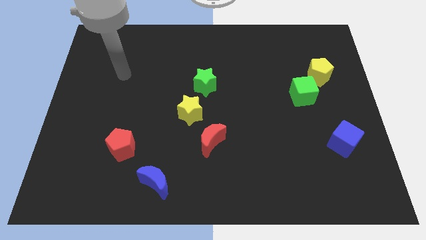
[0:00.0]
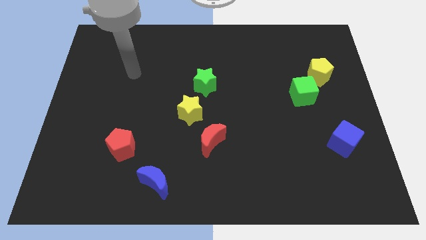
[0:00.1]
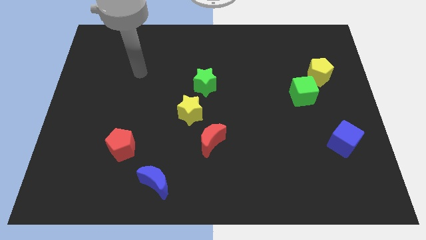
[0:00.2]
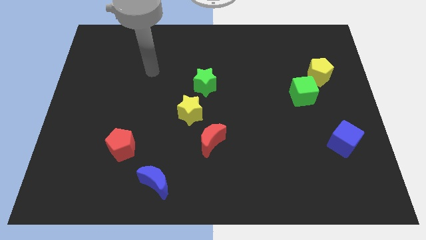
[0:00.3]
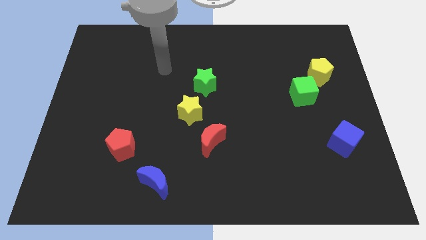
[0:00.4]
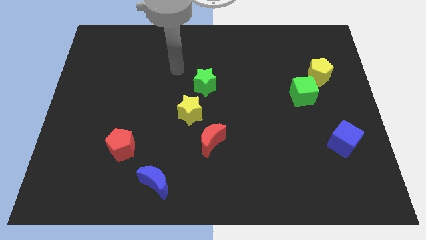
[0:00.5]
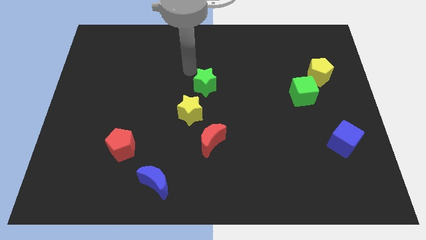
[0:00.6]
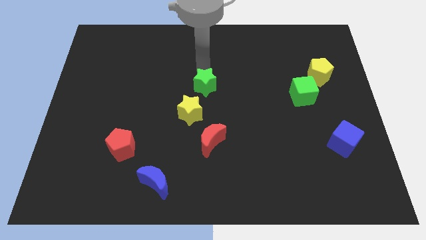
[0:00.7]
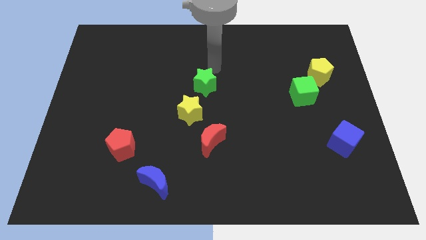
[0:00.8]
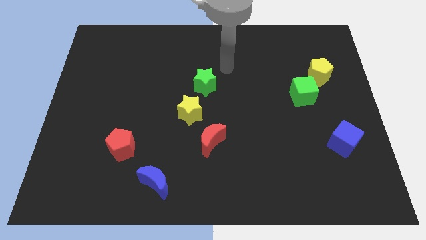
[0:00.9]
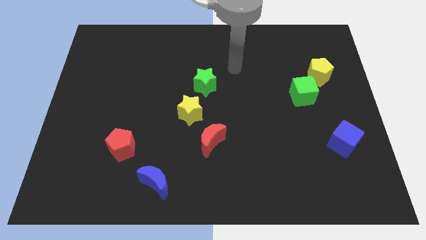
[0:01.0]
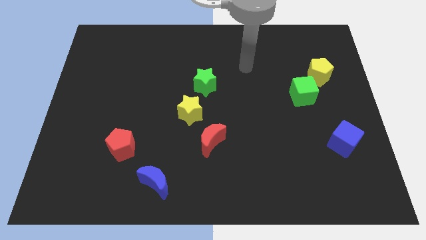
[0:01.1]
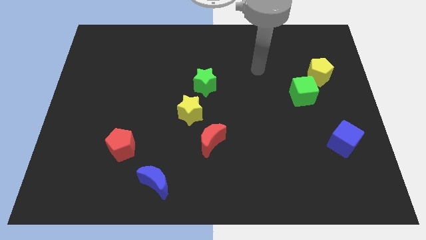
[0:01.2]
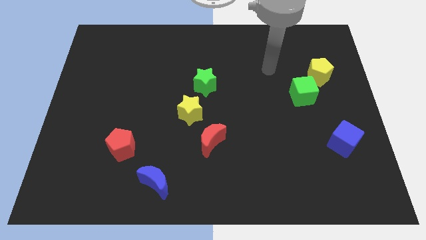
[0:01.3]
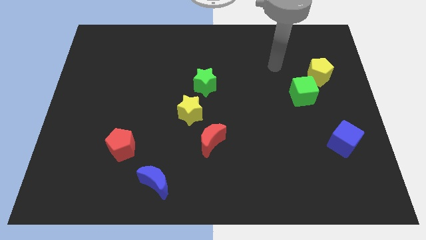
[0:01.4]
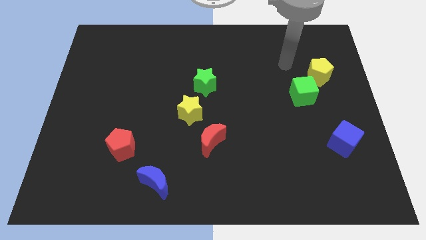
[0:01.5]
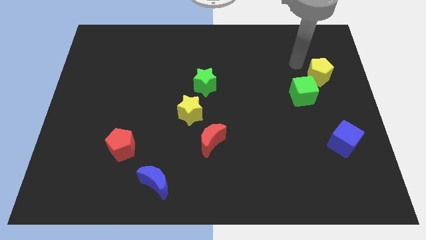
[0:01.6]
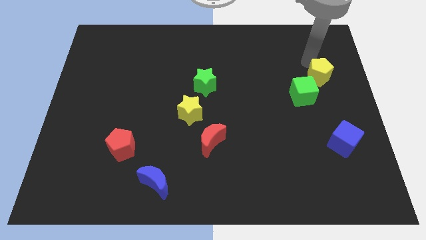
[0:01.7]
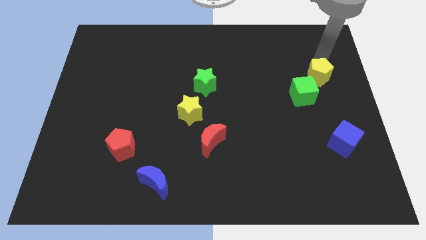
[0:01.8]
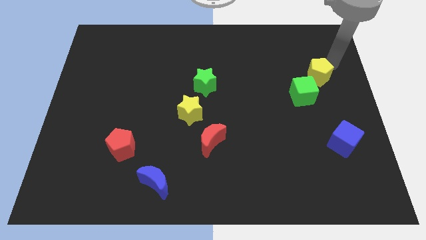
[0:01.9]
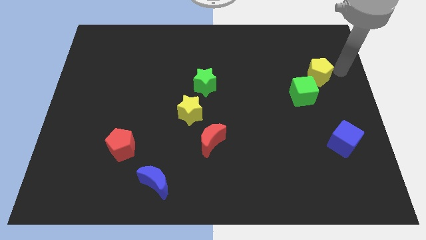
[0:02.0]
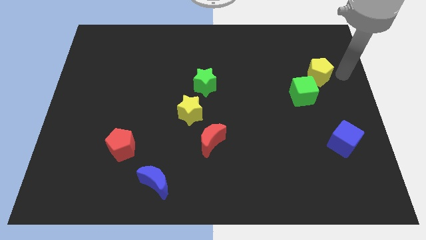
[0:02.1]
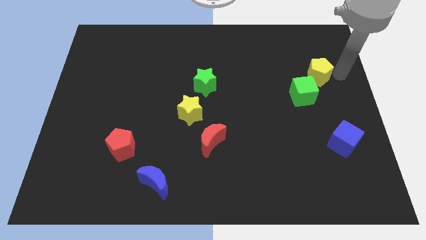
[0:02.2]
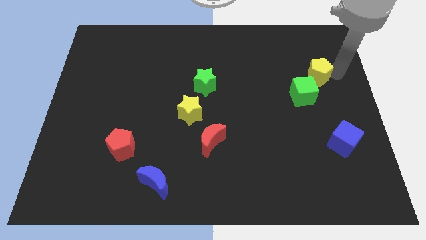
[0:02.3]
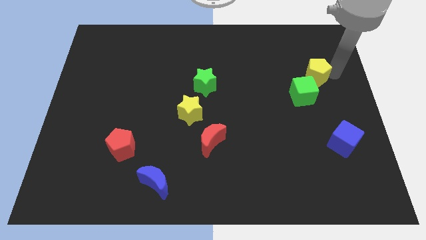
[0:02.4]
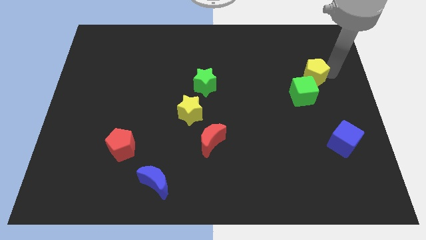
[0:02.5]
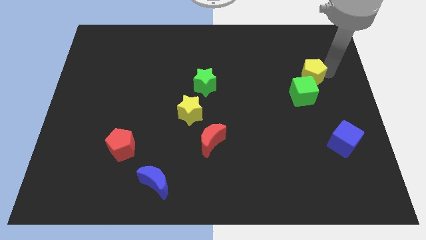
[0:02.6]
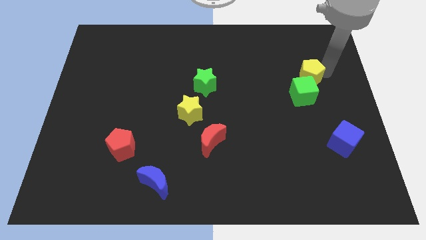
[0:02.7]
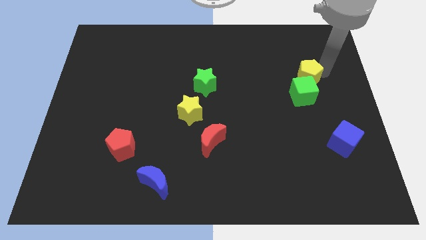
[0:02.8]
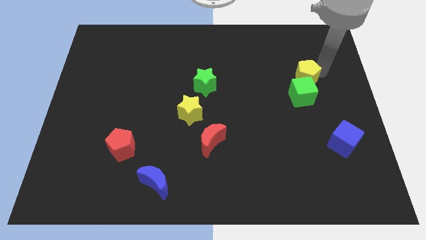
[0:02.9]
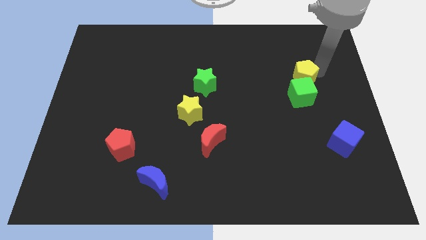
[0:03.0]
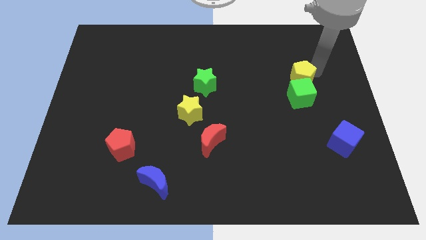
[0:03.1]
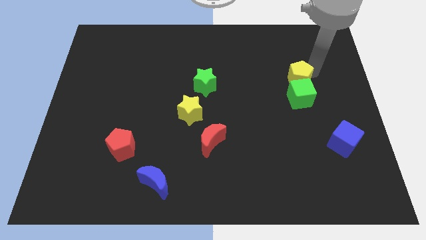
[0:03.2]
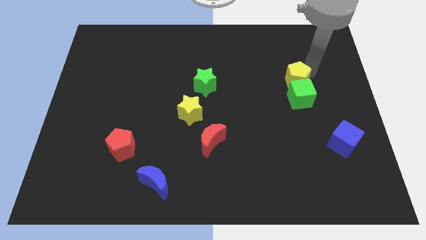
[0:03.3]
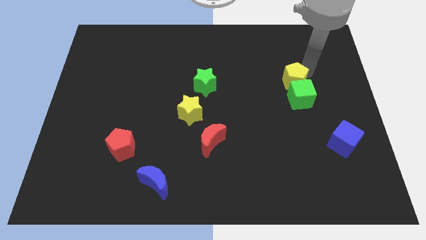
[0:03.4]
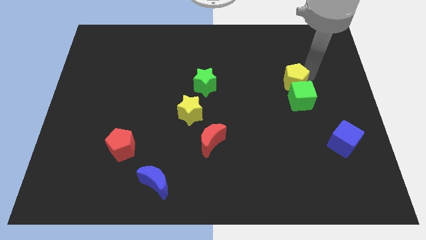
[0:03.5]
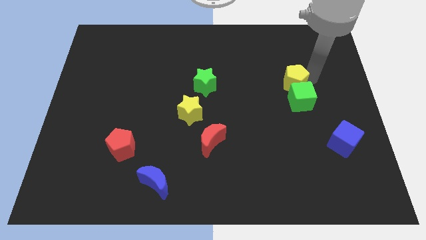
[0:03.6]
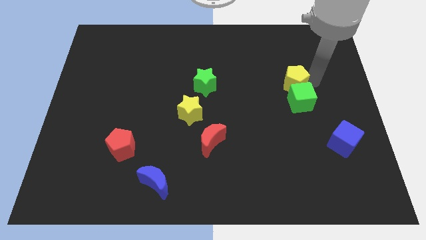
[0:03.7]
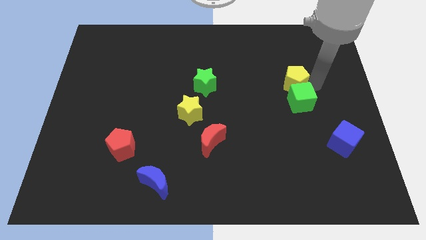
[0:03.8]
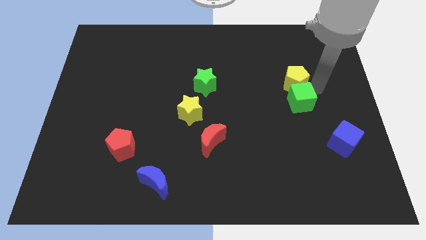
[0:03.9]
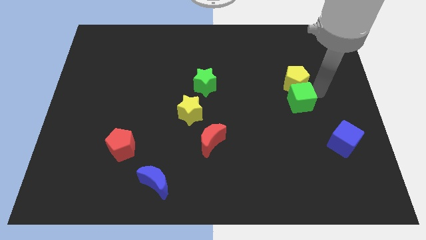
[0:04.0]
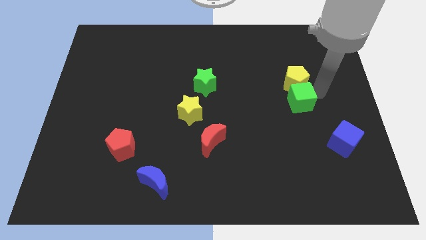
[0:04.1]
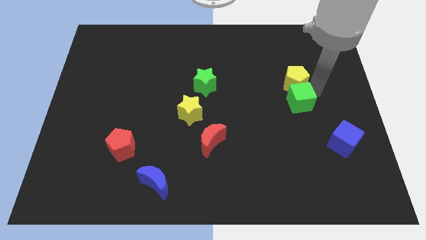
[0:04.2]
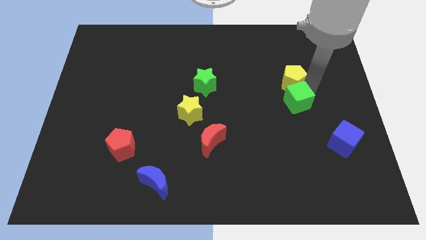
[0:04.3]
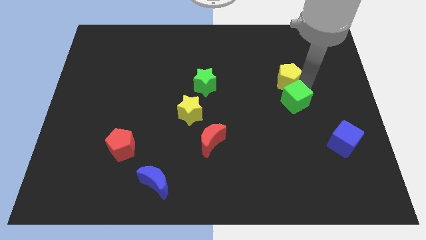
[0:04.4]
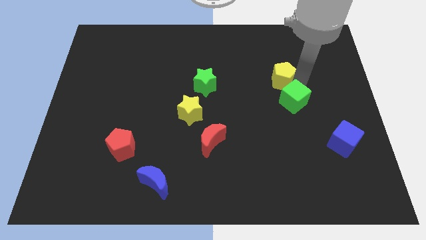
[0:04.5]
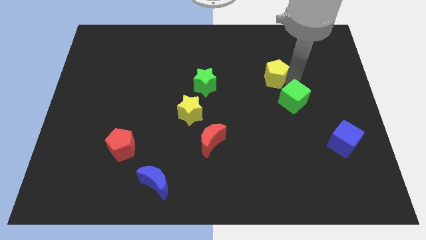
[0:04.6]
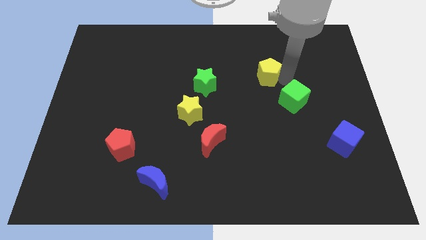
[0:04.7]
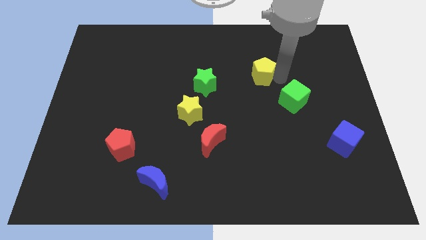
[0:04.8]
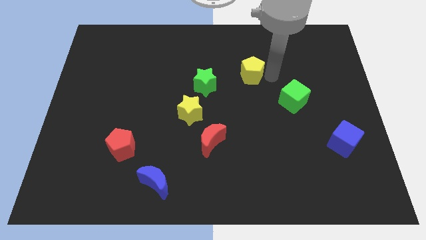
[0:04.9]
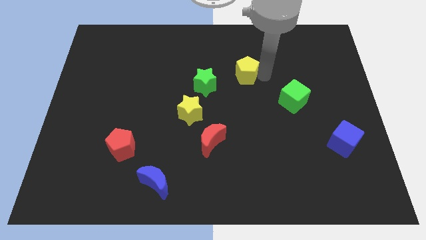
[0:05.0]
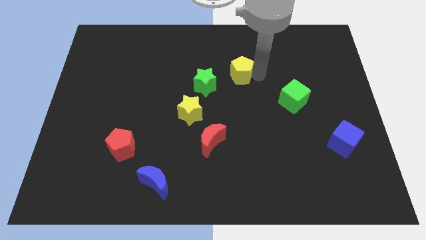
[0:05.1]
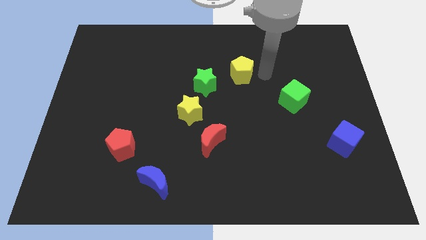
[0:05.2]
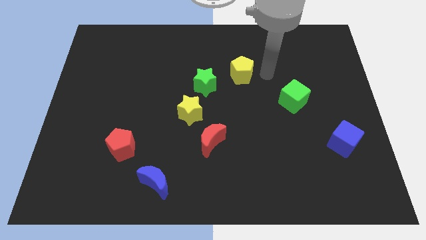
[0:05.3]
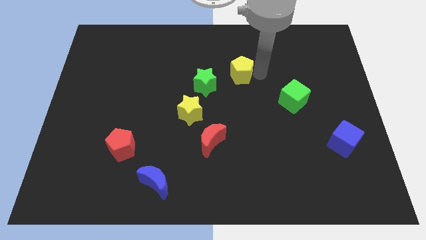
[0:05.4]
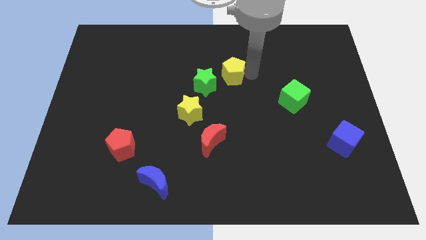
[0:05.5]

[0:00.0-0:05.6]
move the yellow pentagon to the left

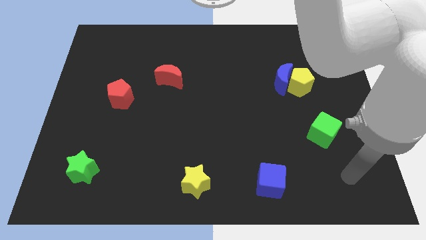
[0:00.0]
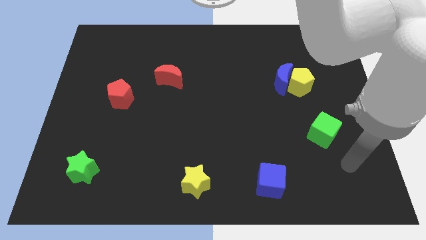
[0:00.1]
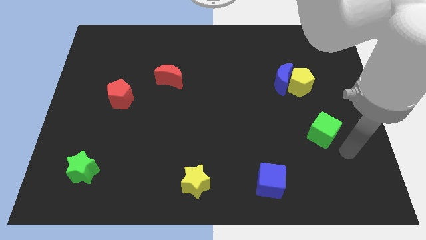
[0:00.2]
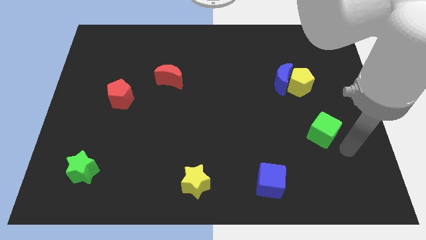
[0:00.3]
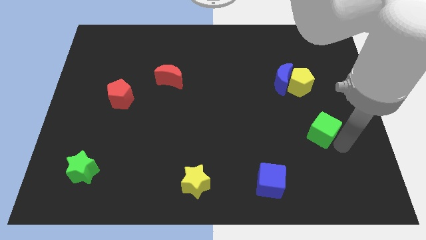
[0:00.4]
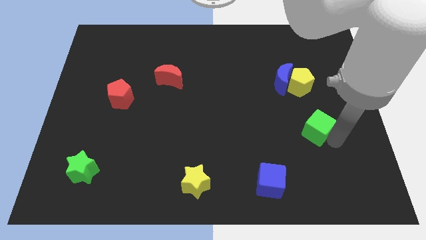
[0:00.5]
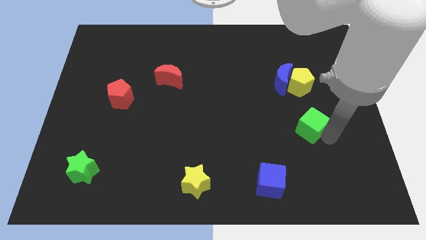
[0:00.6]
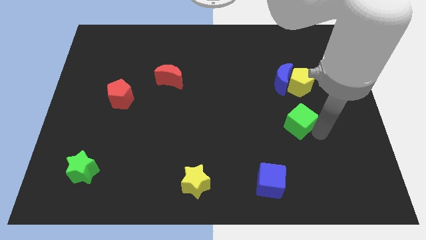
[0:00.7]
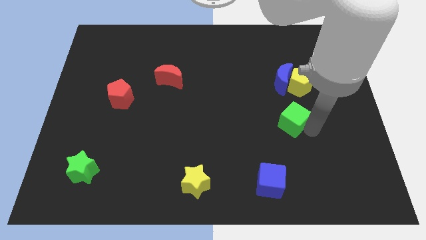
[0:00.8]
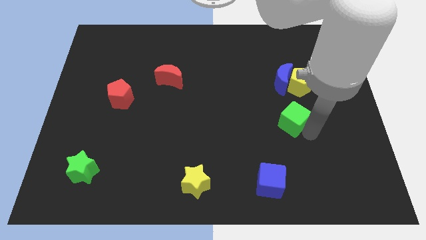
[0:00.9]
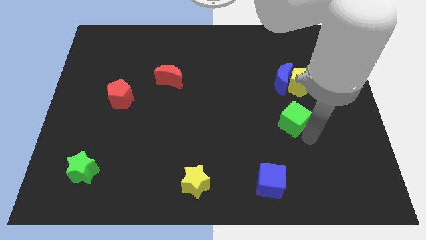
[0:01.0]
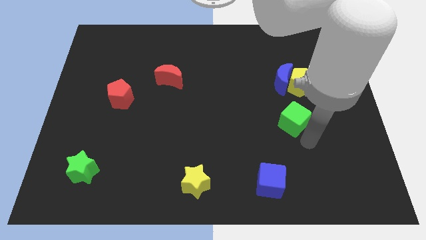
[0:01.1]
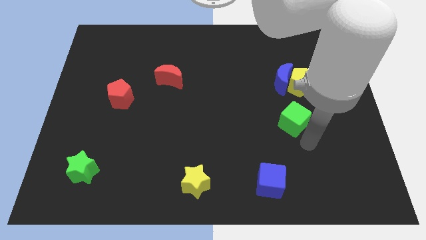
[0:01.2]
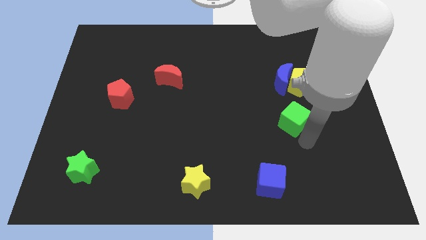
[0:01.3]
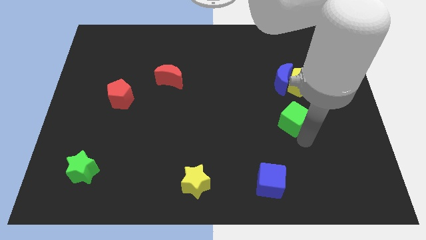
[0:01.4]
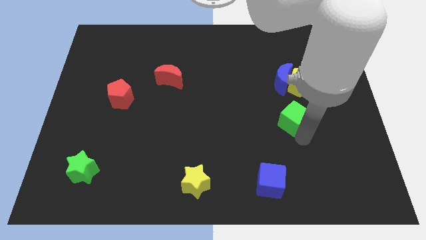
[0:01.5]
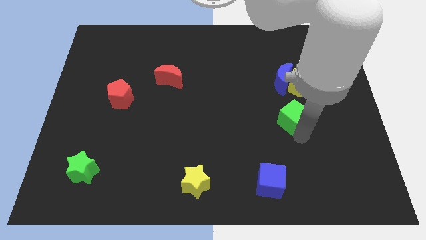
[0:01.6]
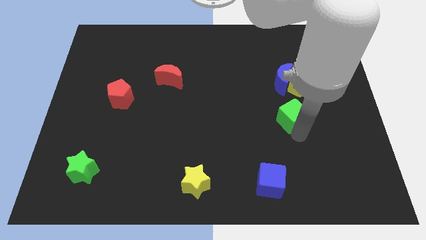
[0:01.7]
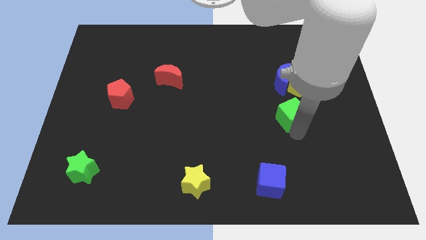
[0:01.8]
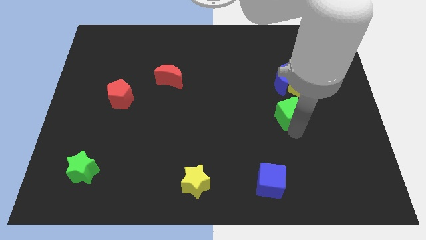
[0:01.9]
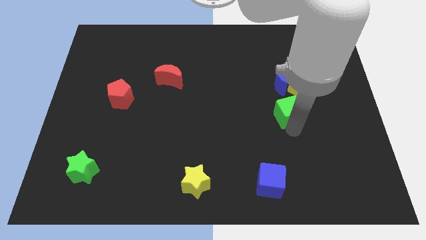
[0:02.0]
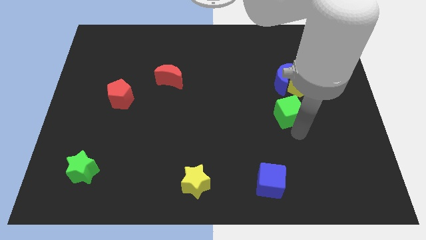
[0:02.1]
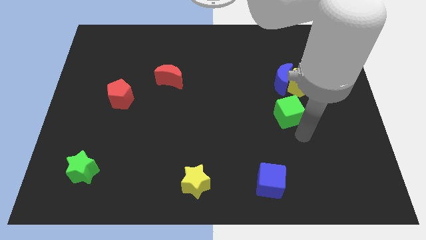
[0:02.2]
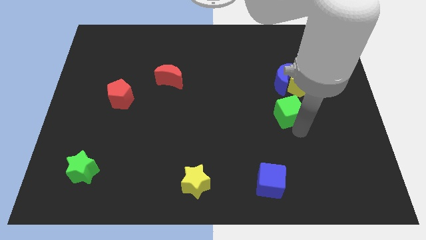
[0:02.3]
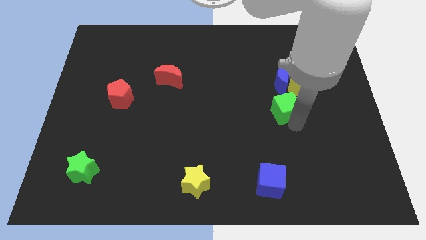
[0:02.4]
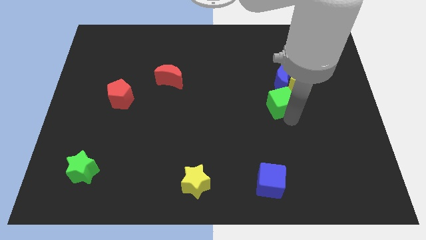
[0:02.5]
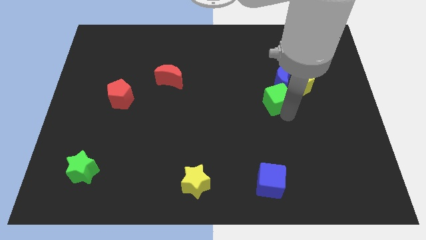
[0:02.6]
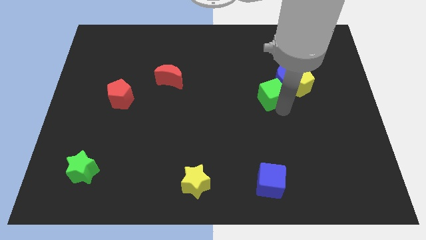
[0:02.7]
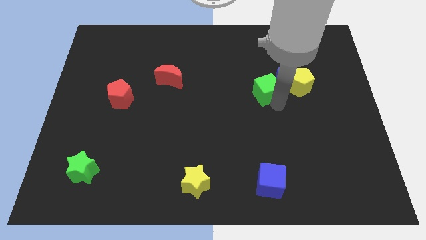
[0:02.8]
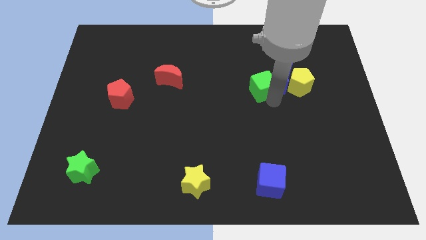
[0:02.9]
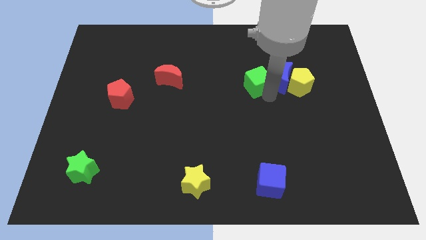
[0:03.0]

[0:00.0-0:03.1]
push the green cube up and left diagonally
